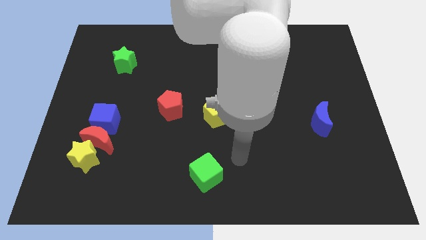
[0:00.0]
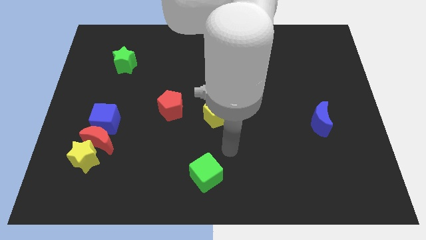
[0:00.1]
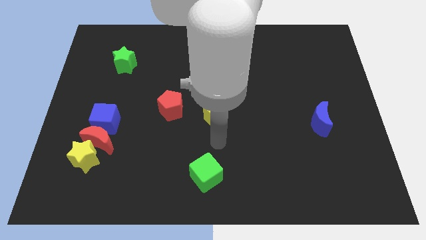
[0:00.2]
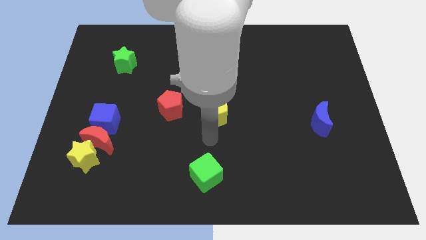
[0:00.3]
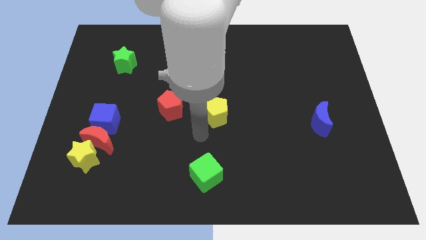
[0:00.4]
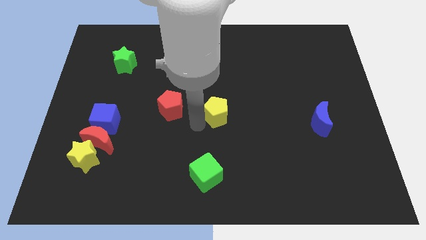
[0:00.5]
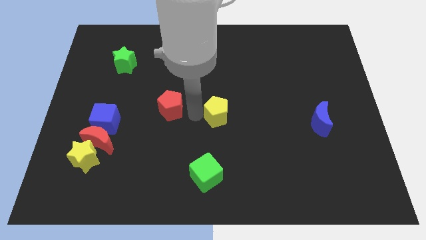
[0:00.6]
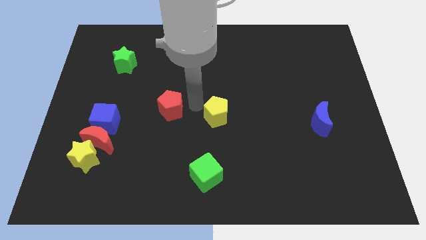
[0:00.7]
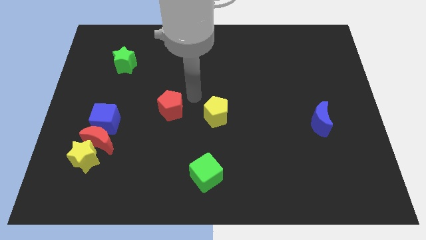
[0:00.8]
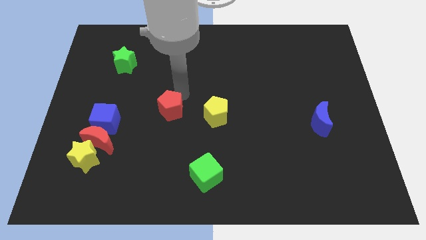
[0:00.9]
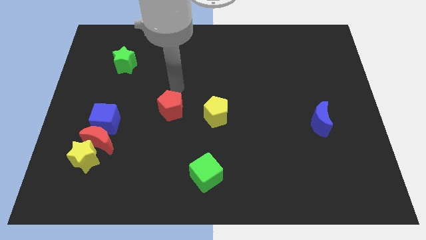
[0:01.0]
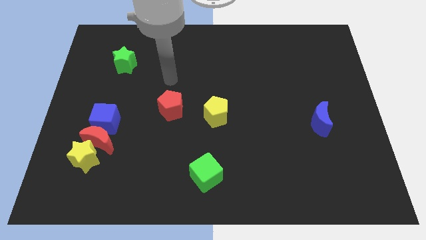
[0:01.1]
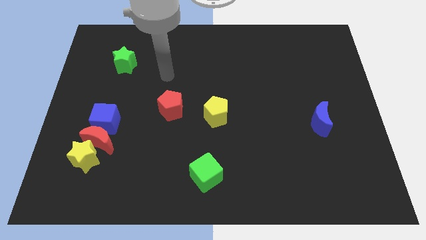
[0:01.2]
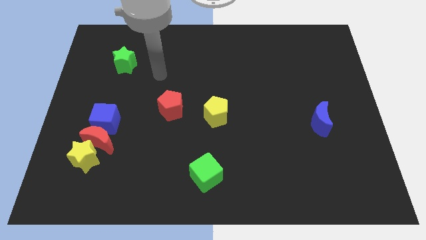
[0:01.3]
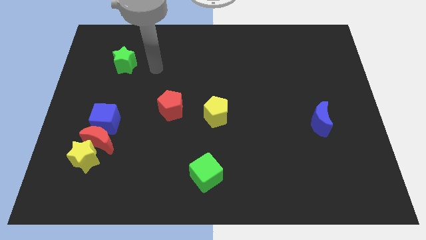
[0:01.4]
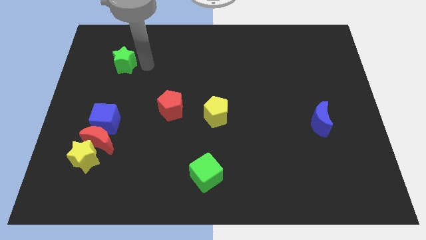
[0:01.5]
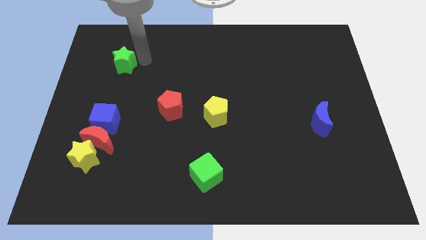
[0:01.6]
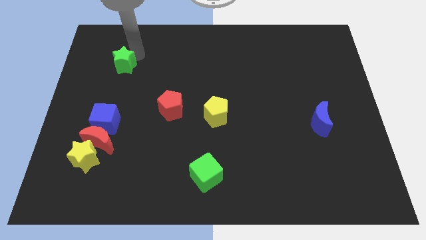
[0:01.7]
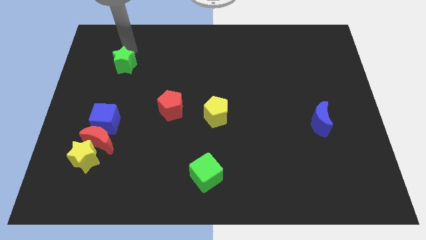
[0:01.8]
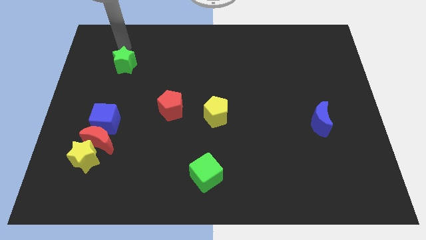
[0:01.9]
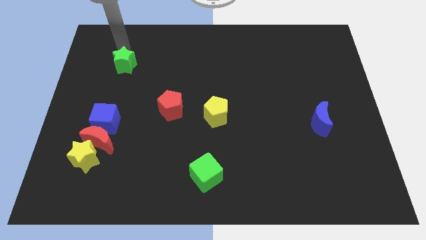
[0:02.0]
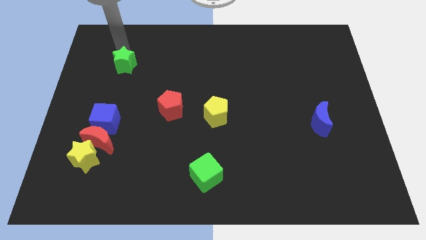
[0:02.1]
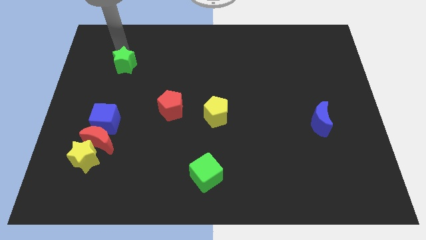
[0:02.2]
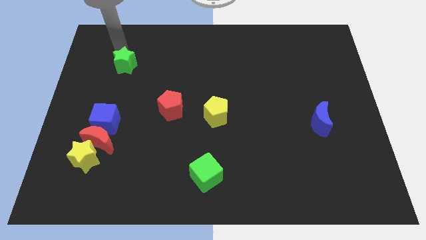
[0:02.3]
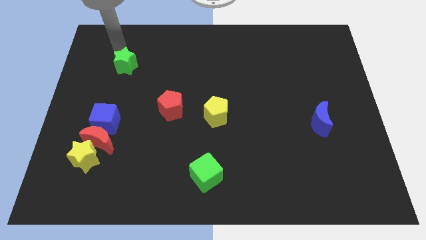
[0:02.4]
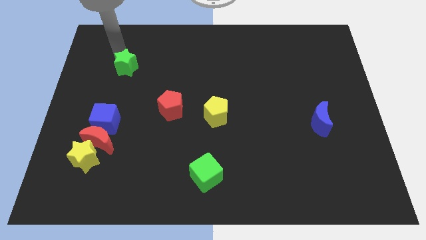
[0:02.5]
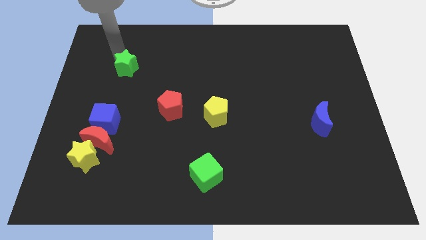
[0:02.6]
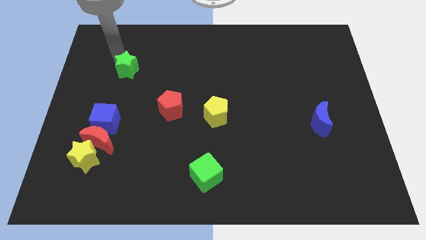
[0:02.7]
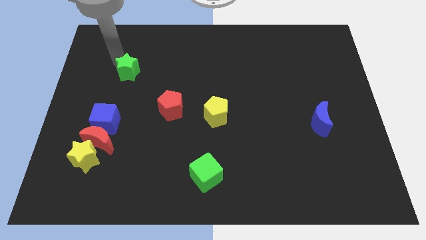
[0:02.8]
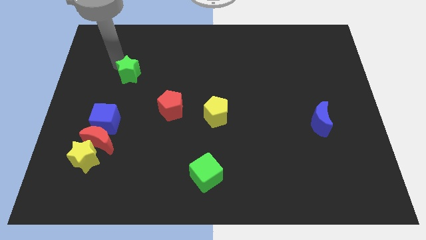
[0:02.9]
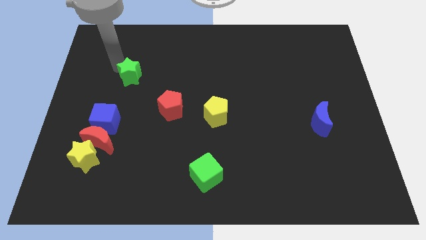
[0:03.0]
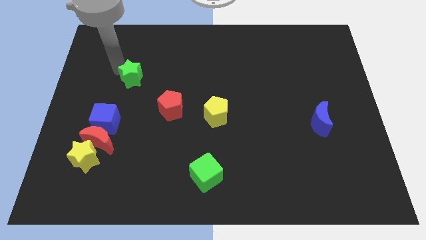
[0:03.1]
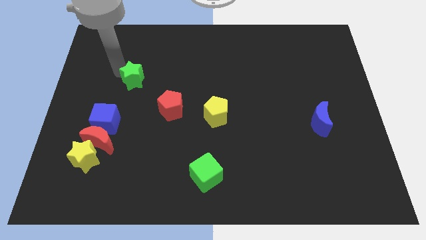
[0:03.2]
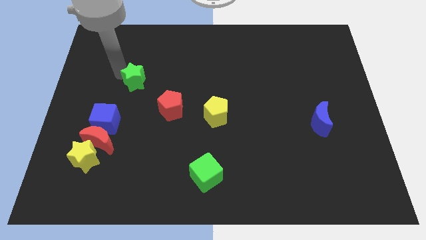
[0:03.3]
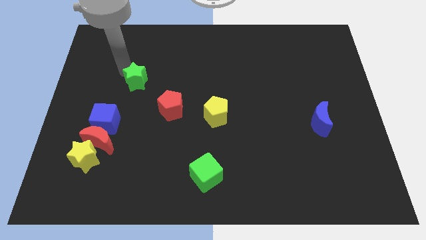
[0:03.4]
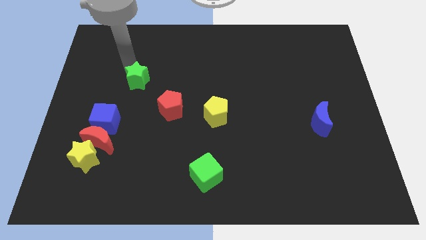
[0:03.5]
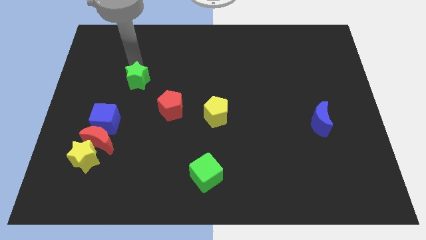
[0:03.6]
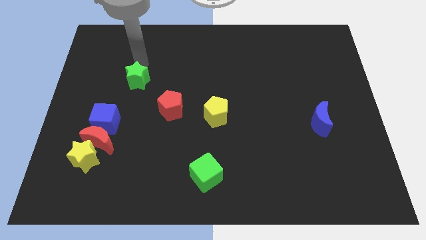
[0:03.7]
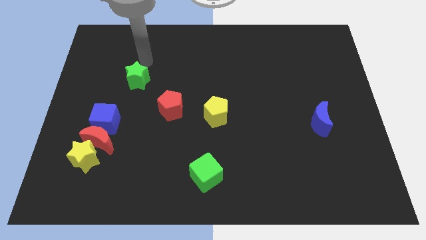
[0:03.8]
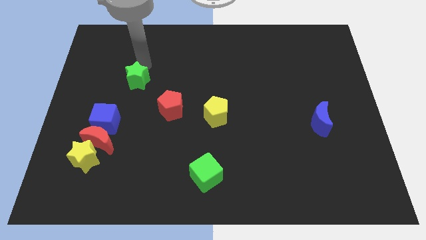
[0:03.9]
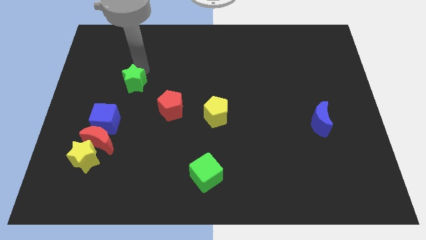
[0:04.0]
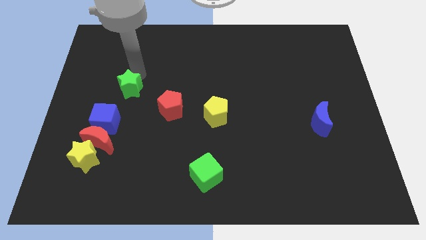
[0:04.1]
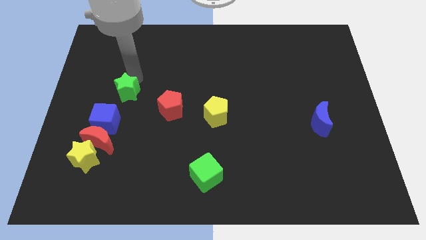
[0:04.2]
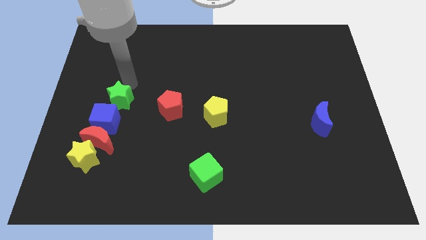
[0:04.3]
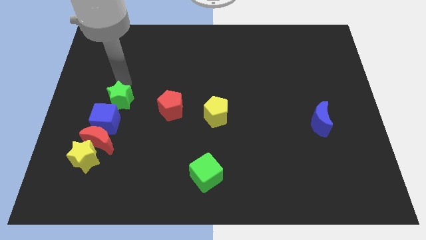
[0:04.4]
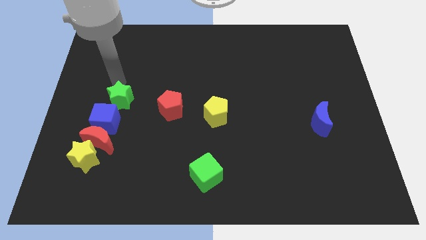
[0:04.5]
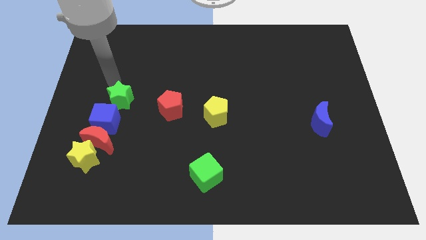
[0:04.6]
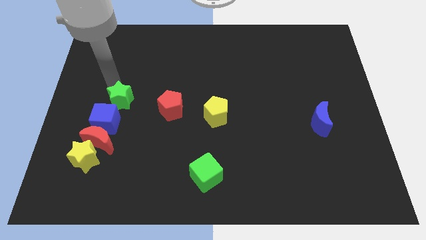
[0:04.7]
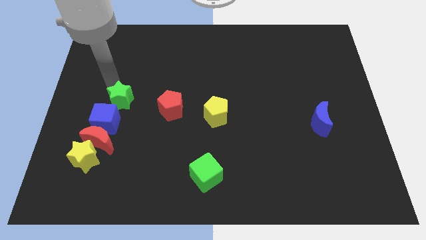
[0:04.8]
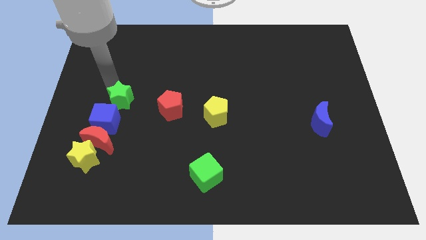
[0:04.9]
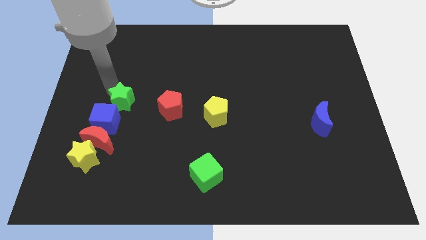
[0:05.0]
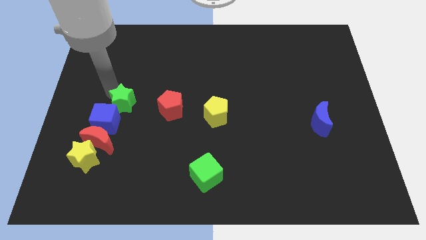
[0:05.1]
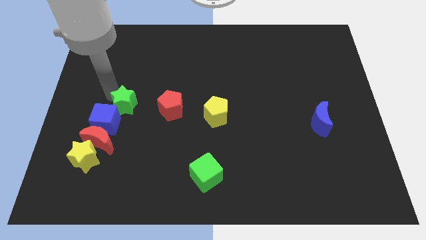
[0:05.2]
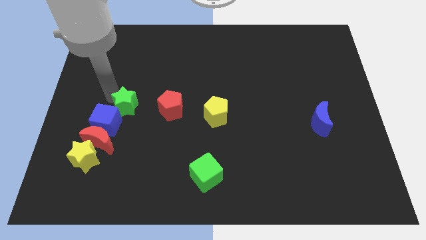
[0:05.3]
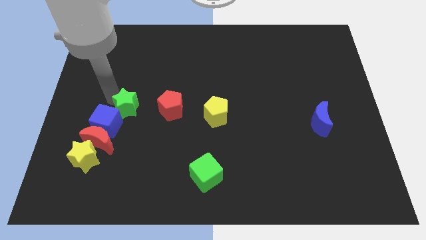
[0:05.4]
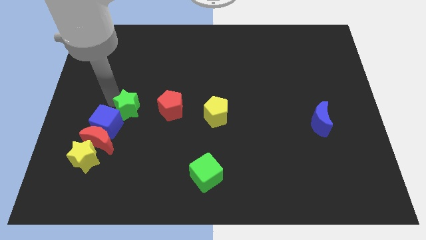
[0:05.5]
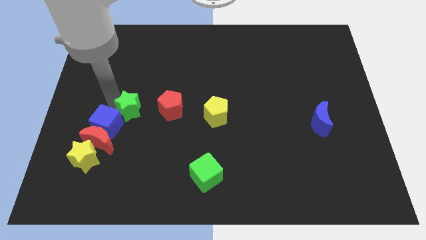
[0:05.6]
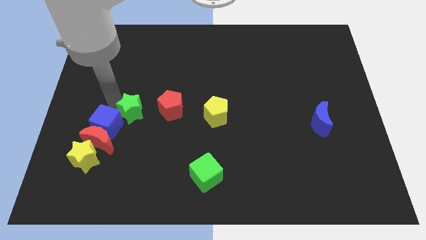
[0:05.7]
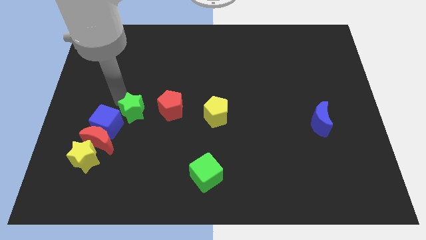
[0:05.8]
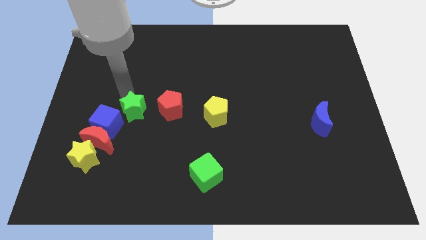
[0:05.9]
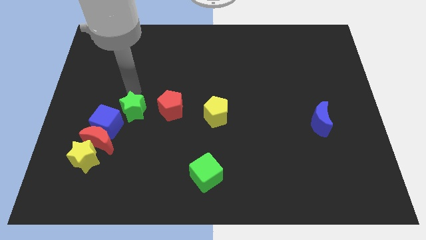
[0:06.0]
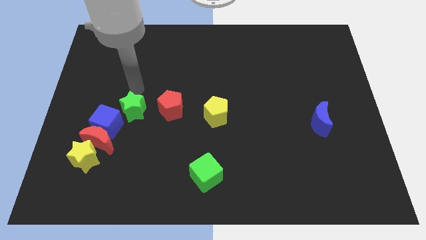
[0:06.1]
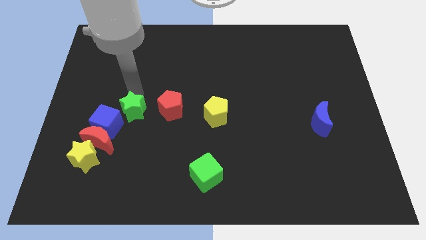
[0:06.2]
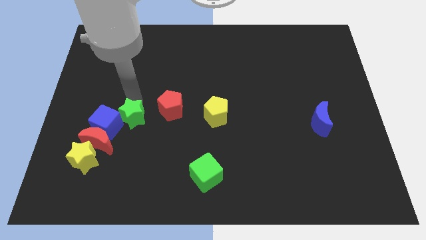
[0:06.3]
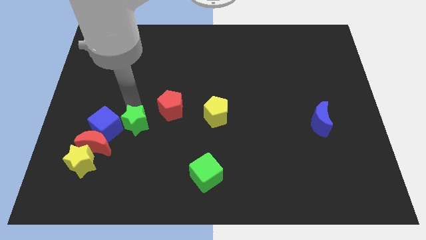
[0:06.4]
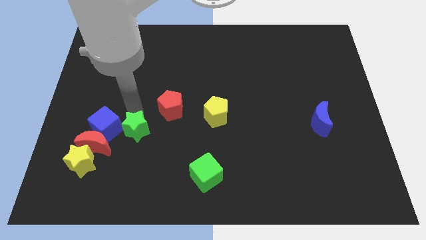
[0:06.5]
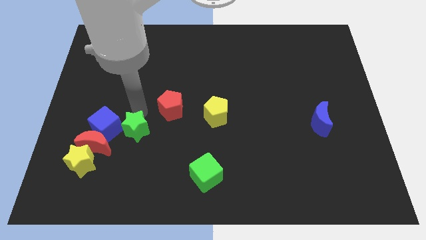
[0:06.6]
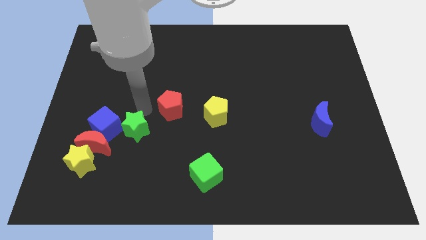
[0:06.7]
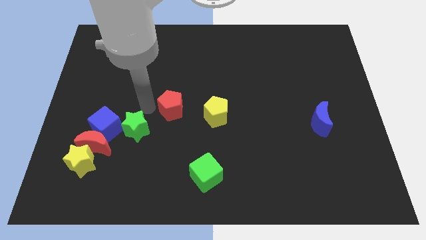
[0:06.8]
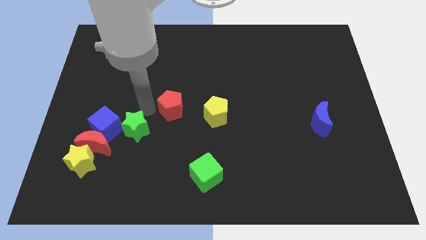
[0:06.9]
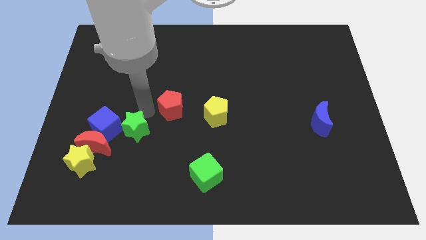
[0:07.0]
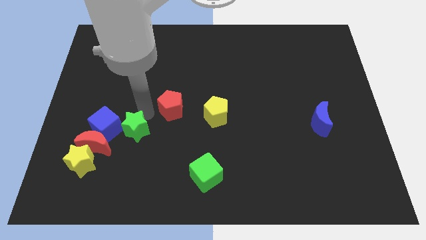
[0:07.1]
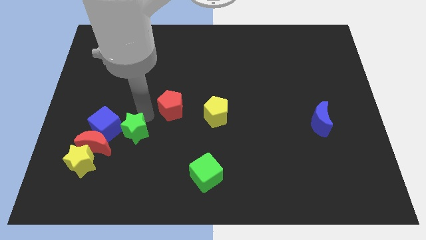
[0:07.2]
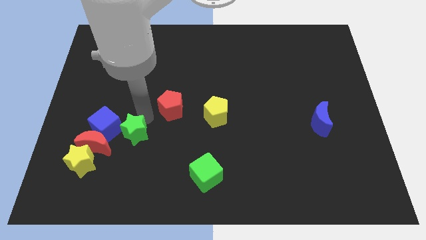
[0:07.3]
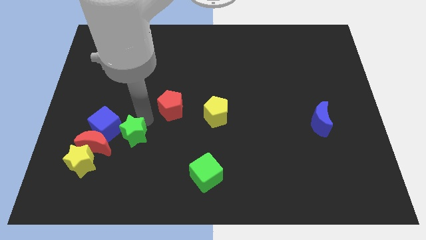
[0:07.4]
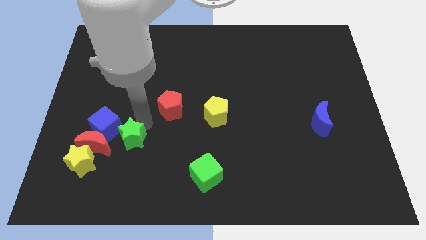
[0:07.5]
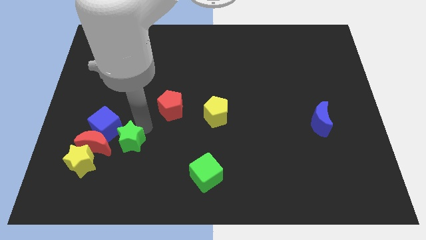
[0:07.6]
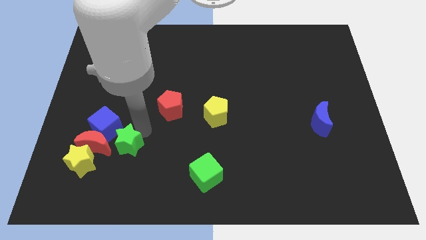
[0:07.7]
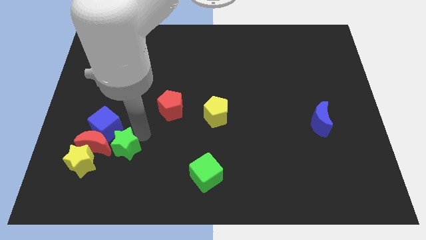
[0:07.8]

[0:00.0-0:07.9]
put the green star to the bottom side of the blue cube
